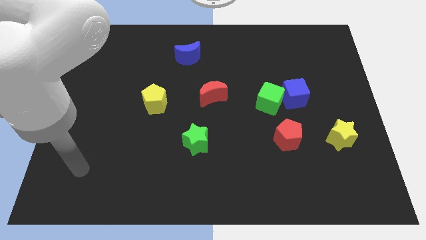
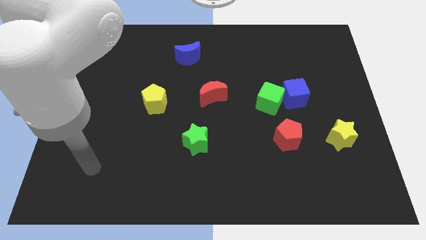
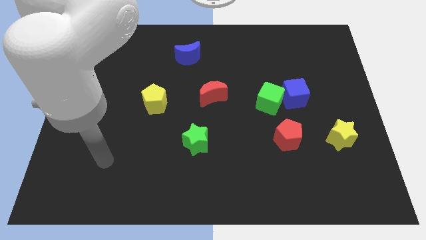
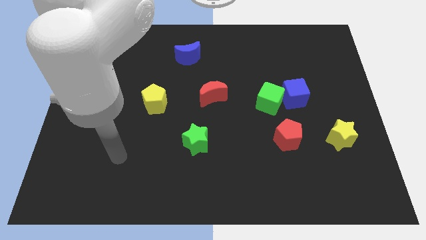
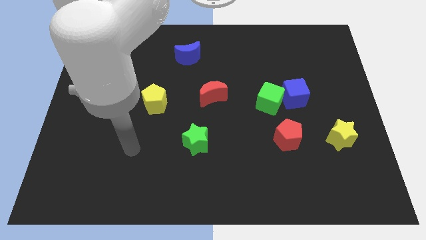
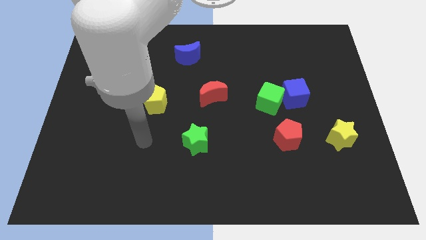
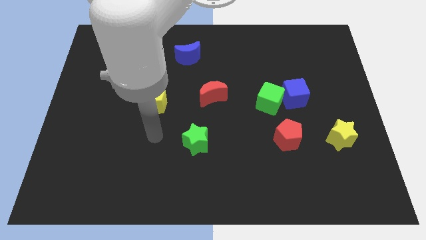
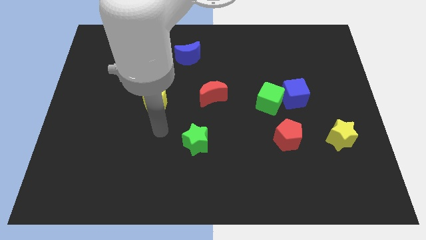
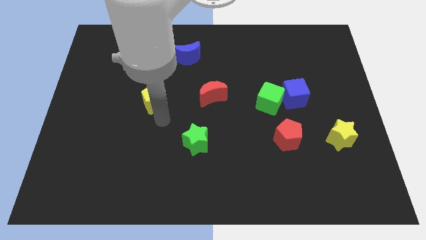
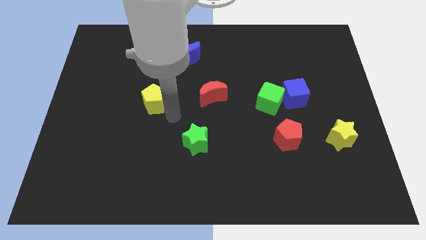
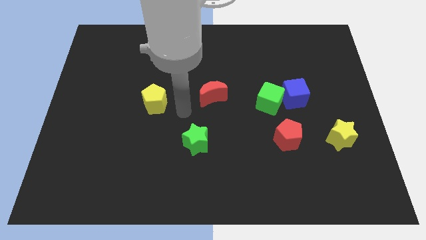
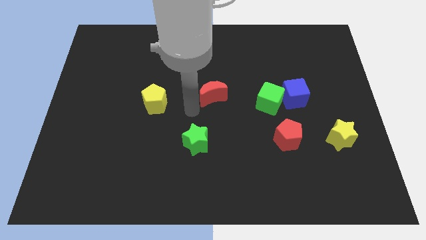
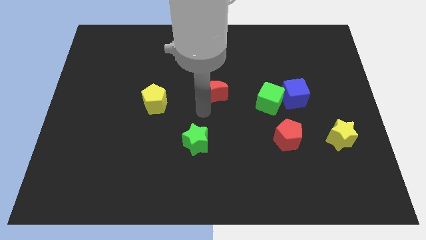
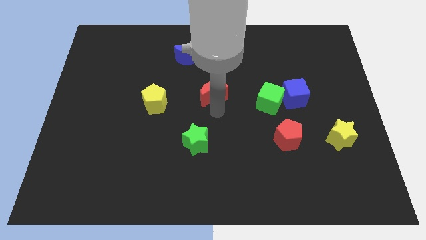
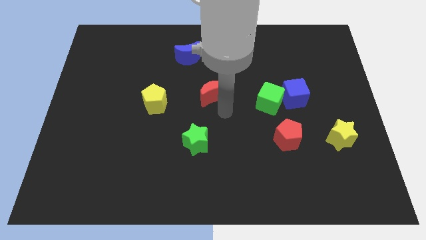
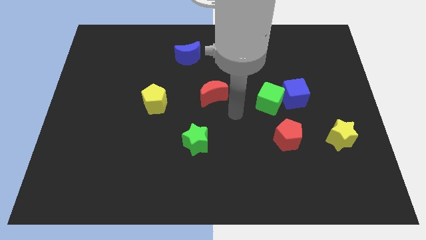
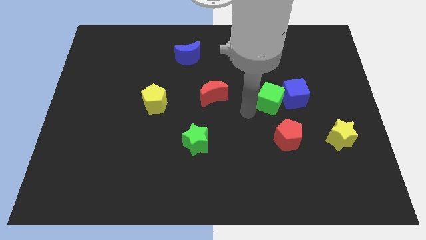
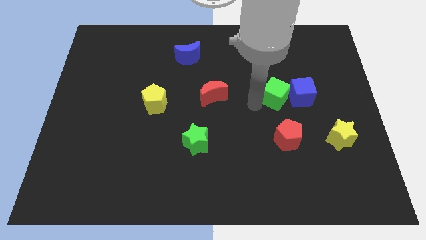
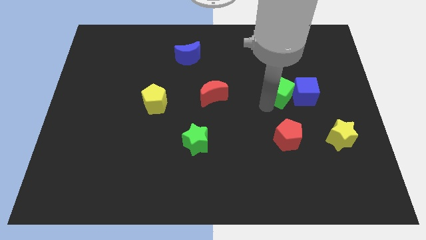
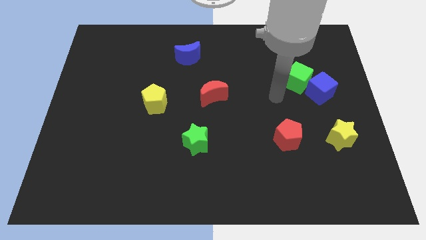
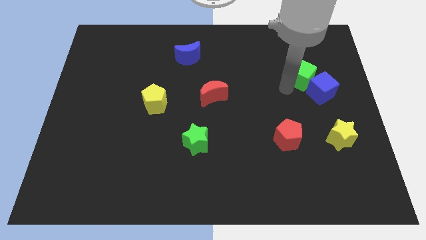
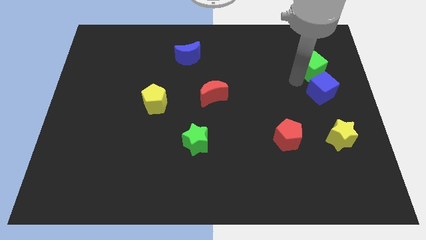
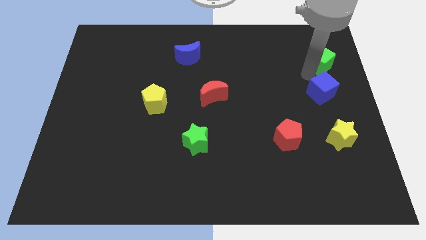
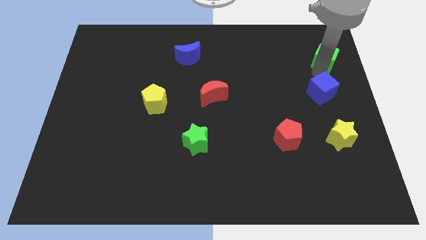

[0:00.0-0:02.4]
separate the blue cube from the green cube

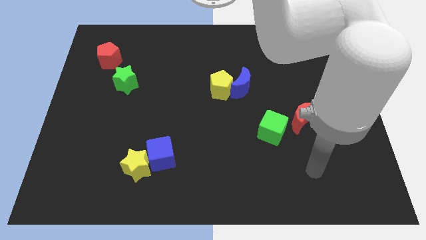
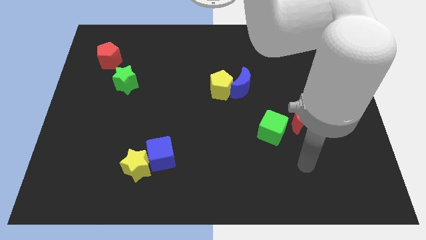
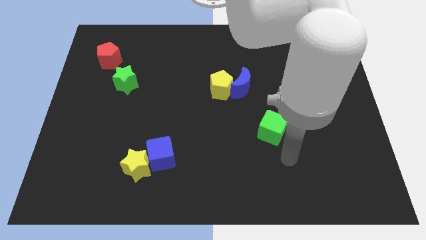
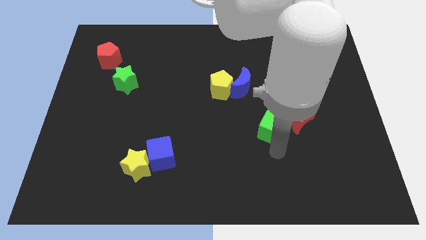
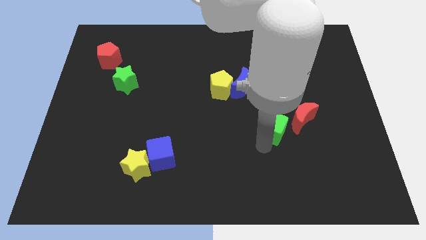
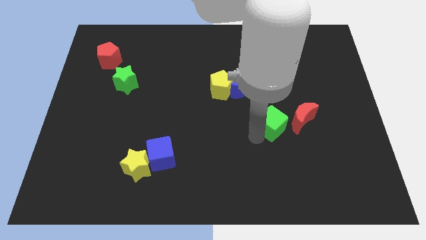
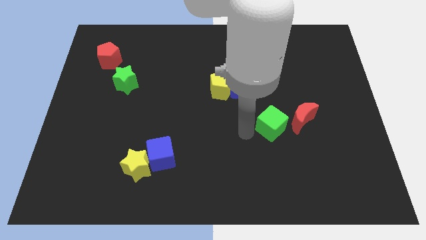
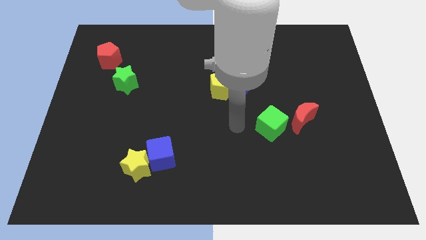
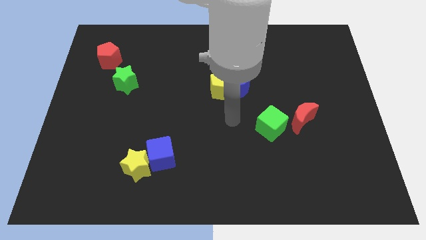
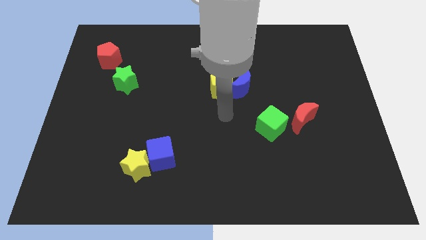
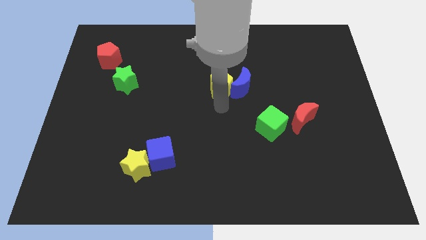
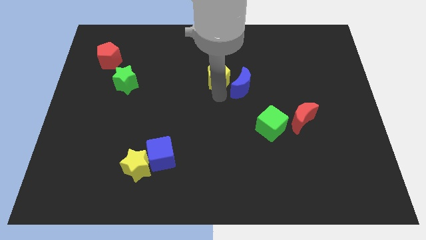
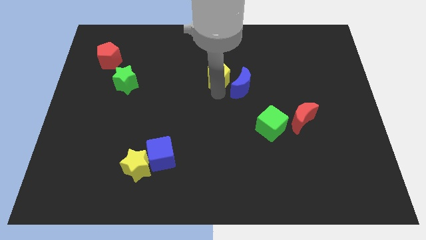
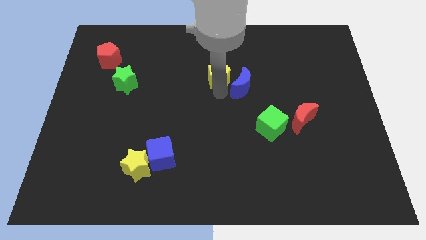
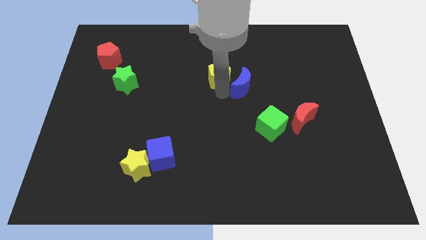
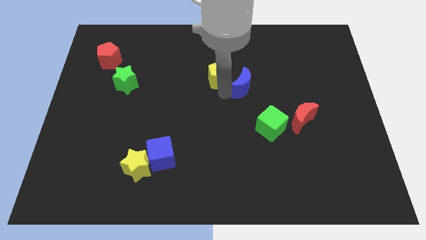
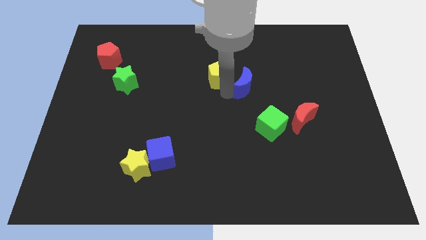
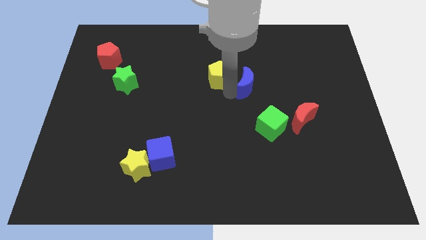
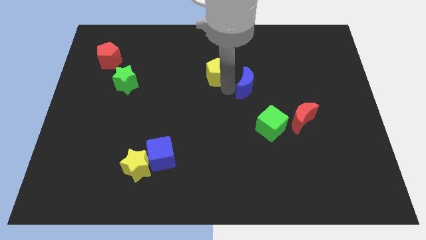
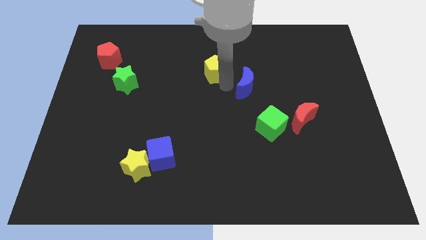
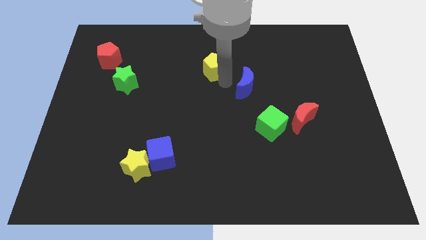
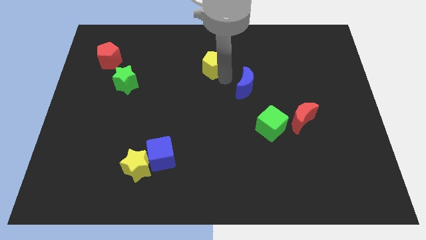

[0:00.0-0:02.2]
pull the blue moon apart from the yellow pentagon

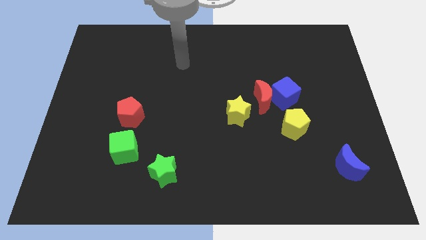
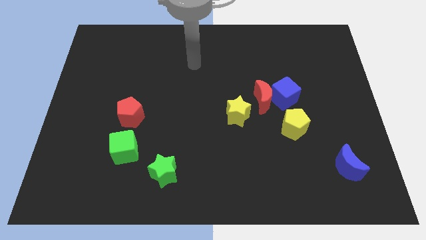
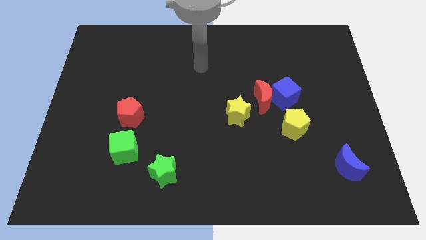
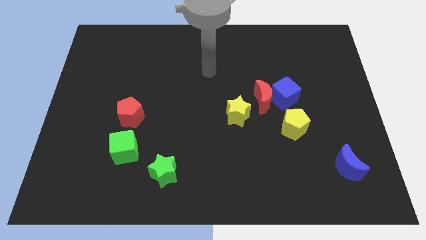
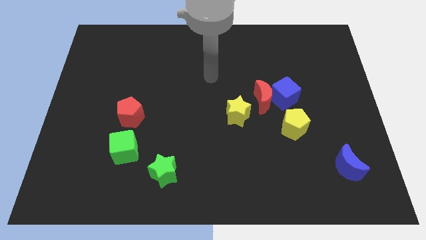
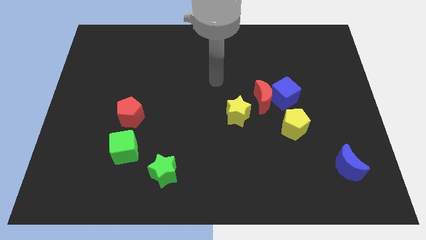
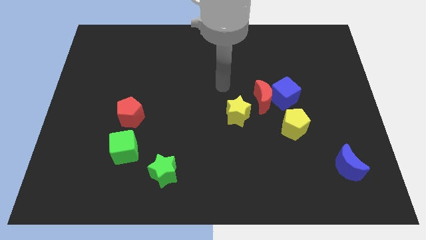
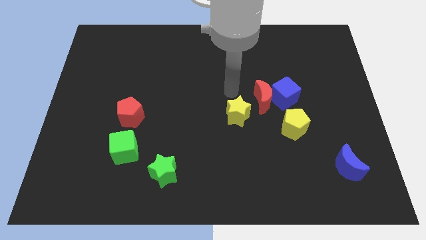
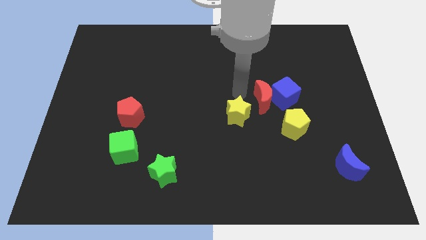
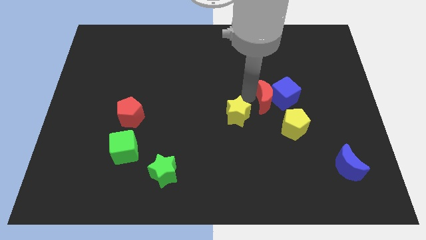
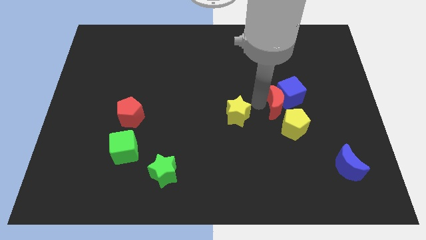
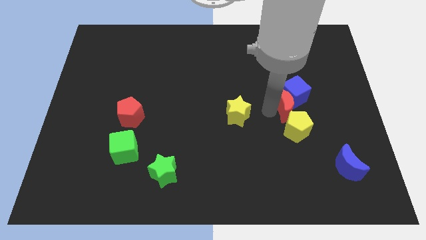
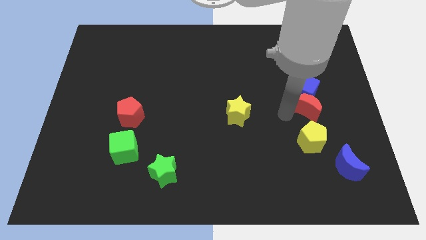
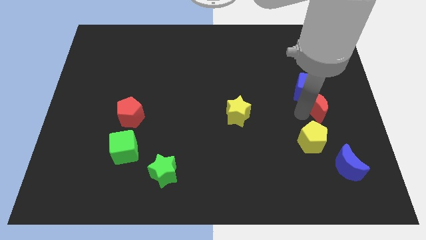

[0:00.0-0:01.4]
move the blue cube away from the red moon and yellow pentagon

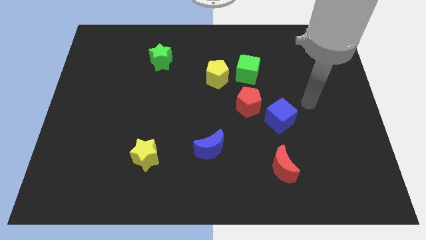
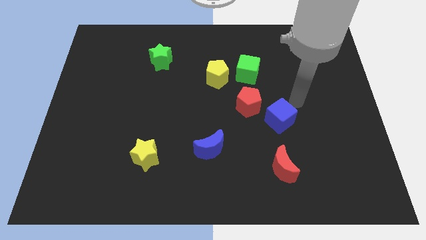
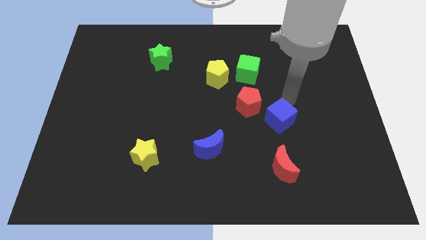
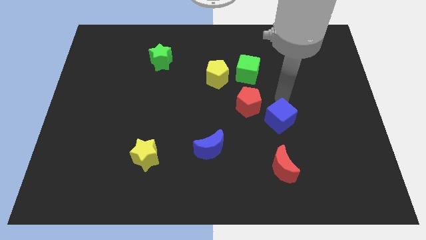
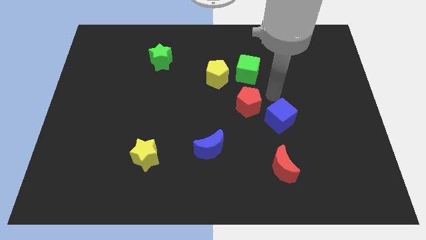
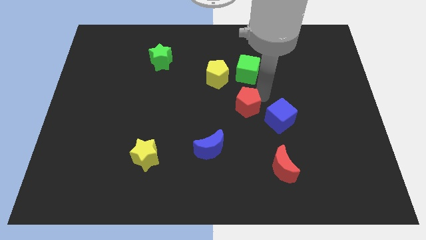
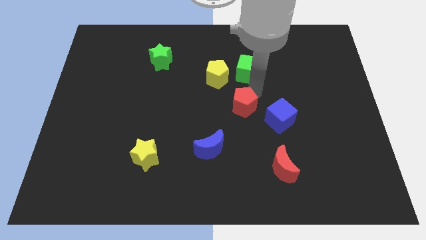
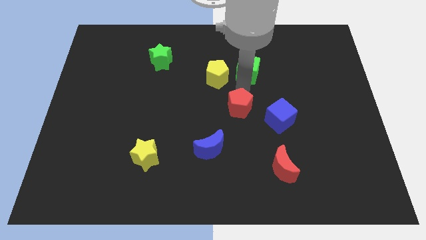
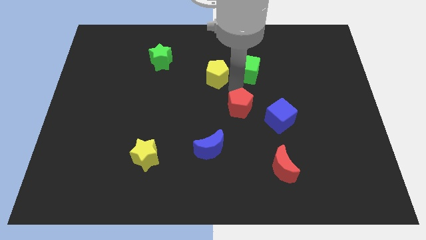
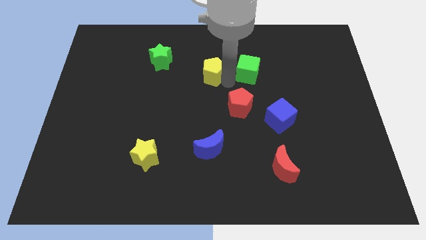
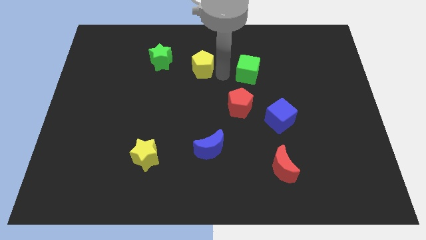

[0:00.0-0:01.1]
move the green cube away from the yellow pentagon

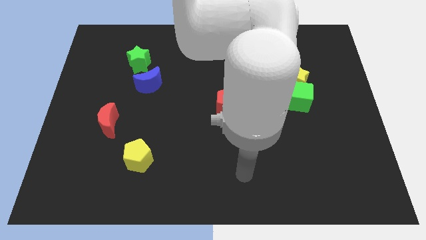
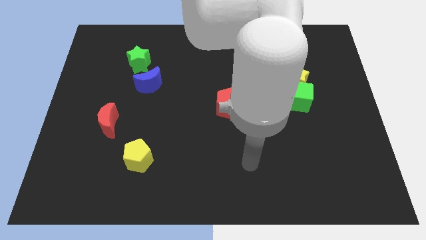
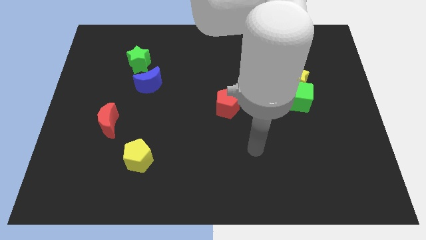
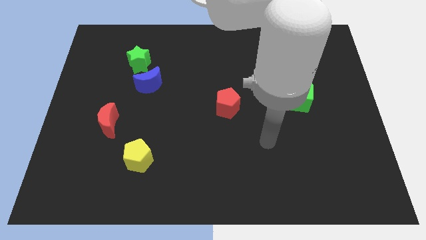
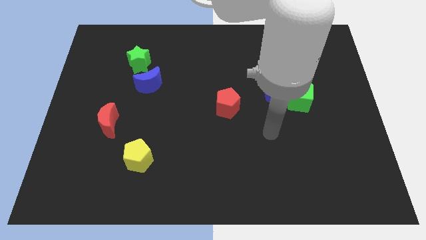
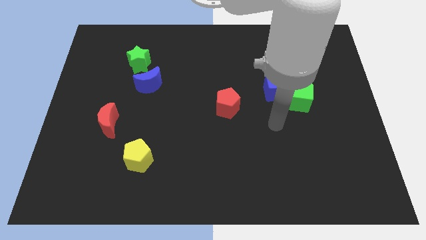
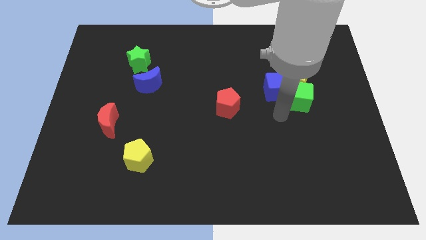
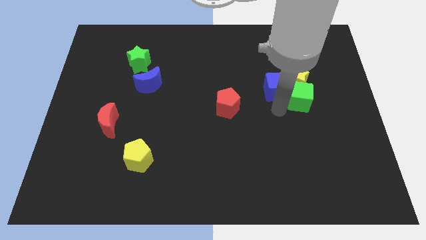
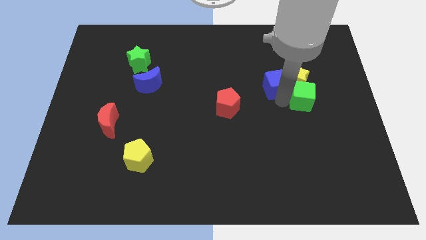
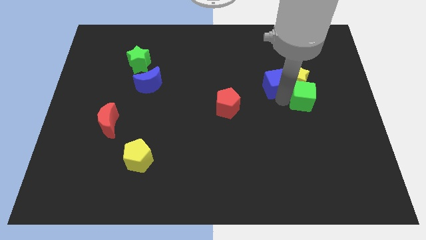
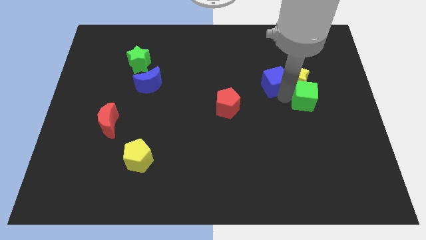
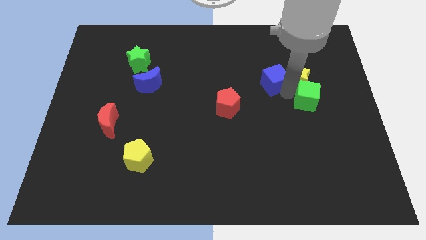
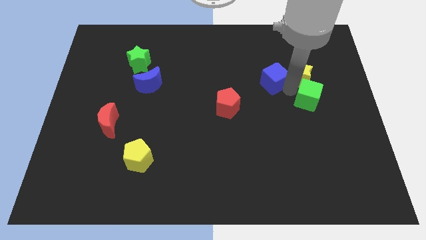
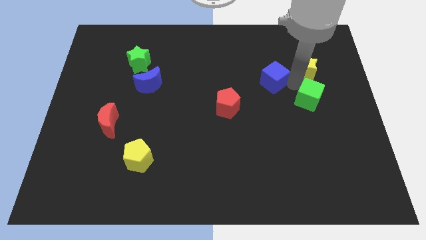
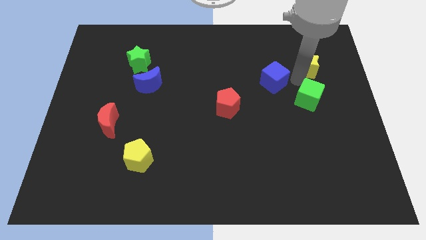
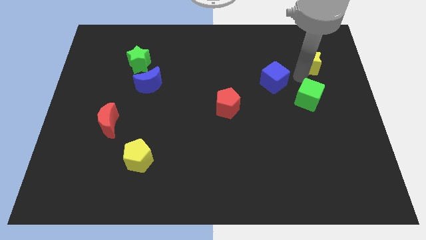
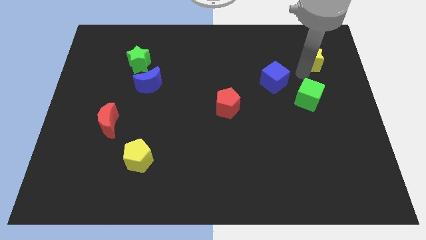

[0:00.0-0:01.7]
move the yellow star away from the green cube and blue cube

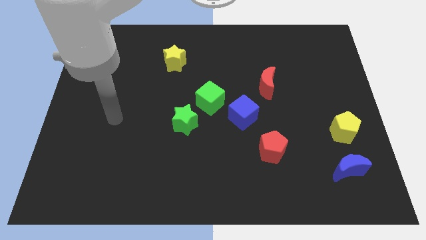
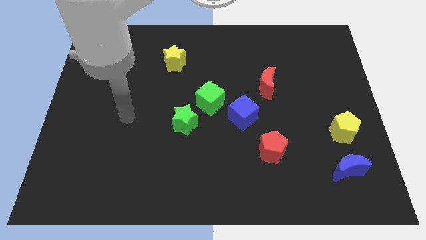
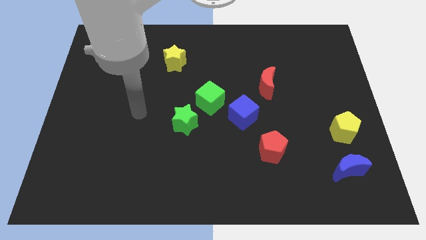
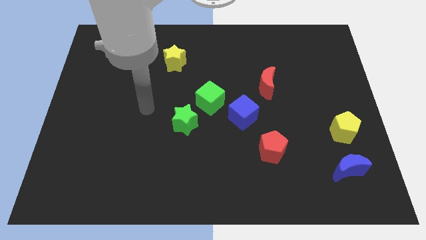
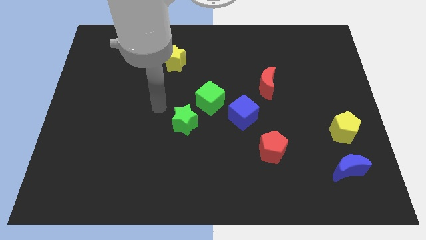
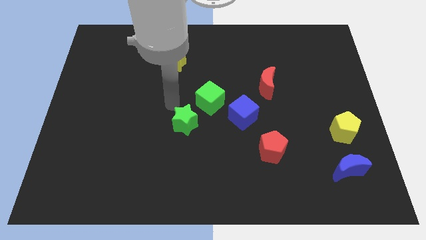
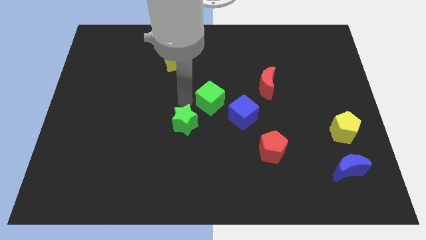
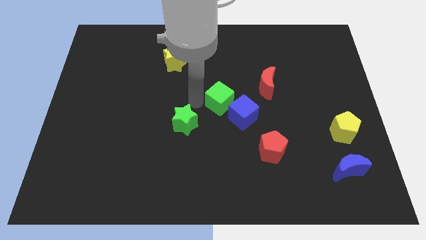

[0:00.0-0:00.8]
move the green star away from the green cube
